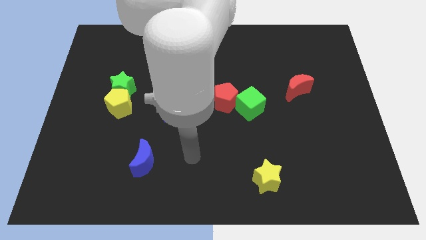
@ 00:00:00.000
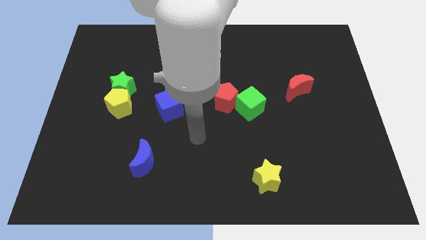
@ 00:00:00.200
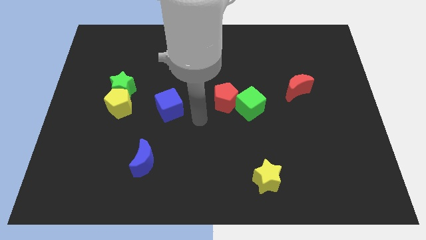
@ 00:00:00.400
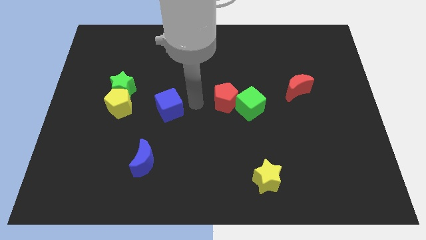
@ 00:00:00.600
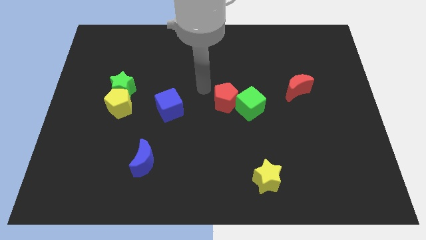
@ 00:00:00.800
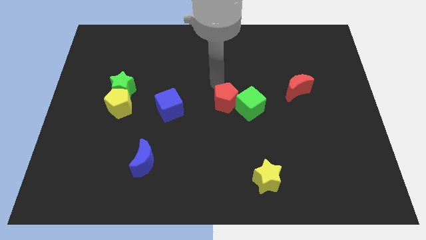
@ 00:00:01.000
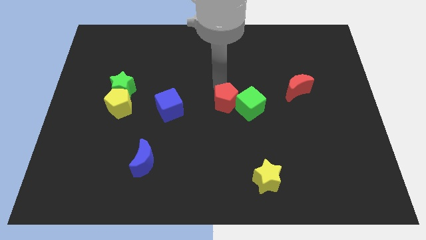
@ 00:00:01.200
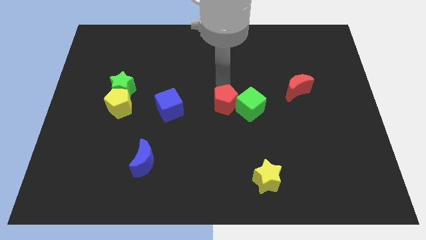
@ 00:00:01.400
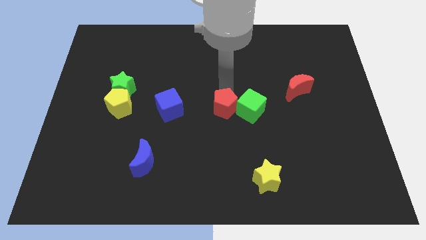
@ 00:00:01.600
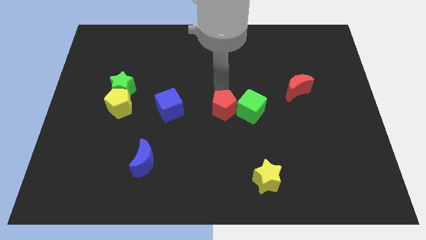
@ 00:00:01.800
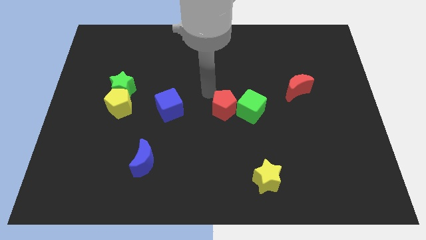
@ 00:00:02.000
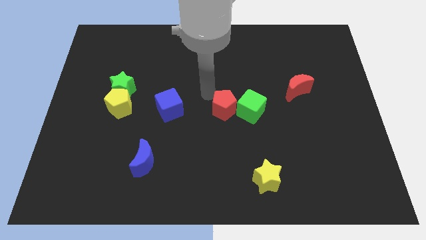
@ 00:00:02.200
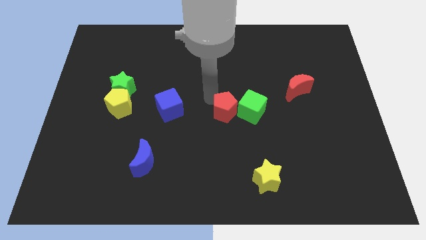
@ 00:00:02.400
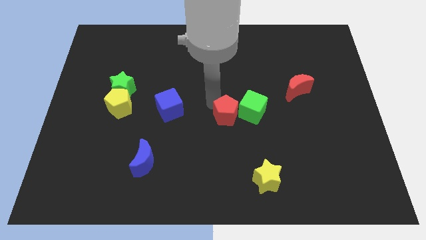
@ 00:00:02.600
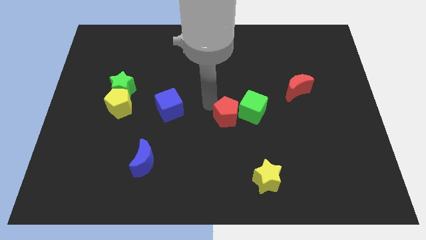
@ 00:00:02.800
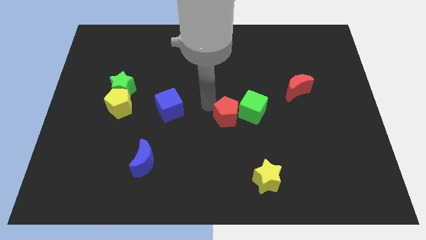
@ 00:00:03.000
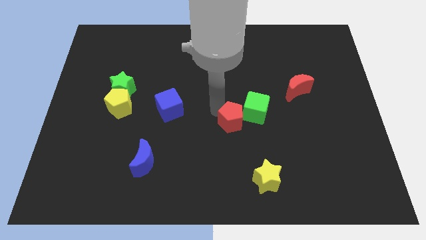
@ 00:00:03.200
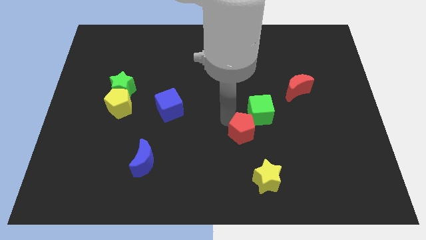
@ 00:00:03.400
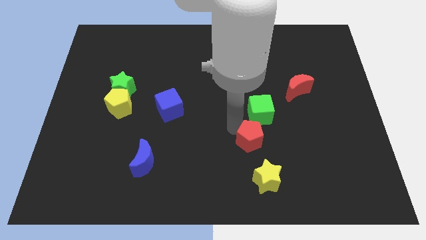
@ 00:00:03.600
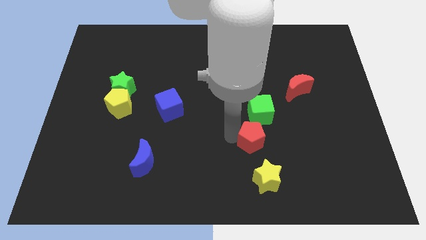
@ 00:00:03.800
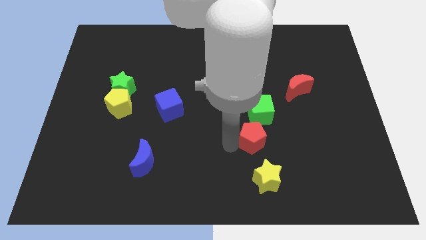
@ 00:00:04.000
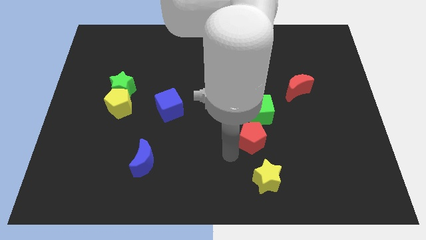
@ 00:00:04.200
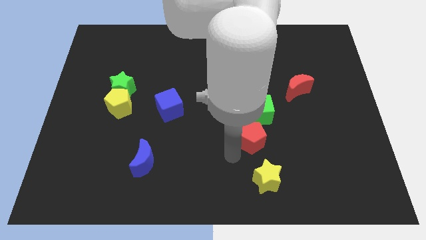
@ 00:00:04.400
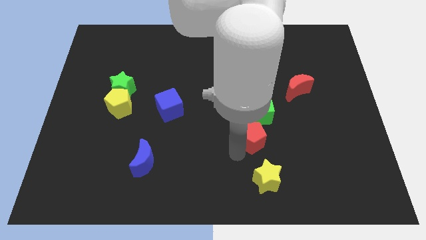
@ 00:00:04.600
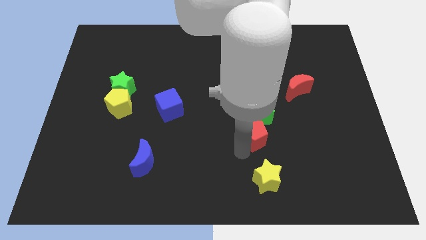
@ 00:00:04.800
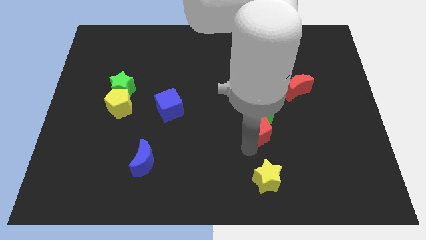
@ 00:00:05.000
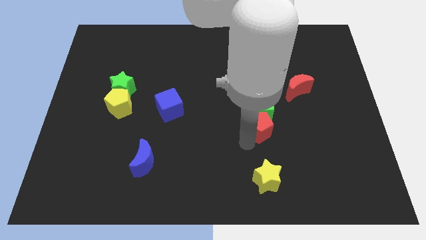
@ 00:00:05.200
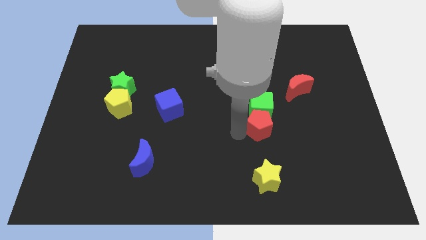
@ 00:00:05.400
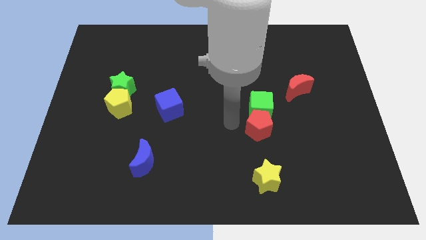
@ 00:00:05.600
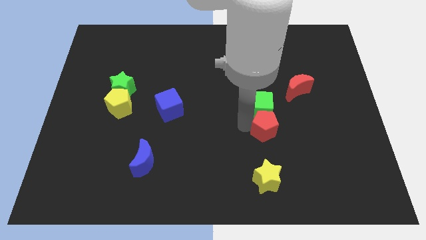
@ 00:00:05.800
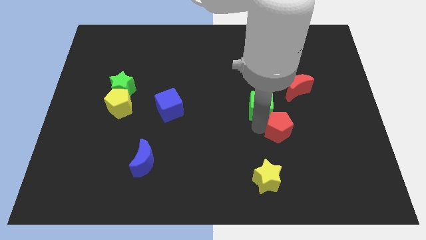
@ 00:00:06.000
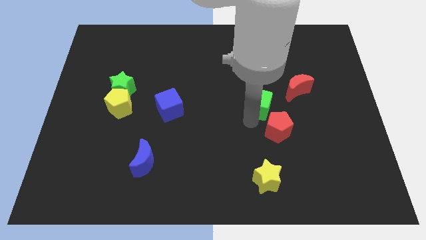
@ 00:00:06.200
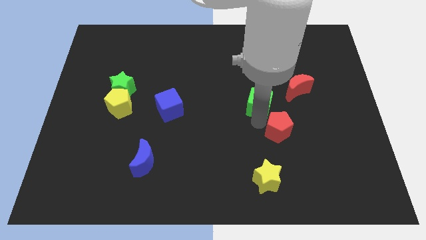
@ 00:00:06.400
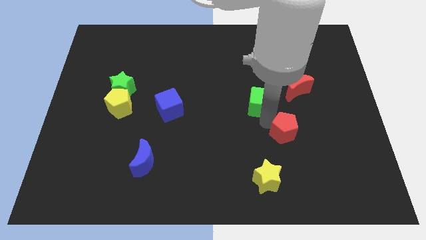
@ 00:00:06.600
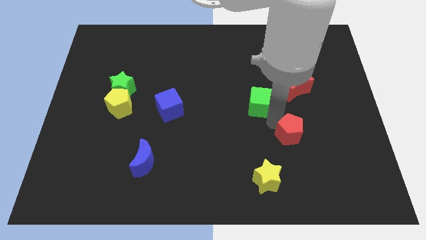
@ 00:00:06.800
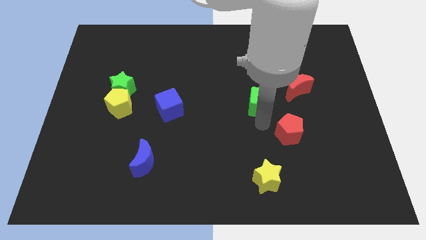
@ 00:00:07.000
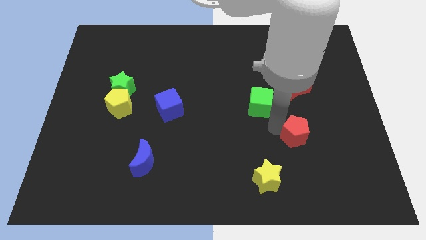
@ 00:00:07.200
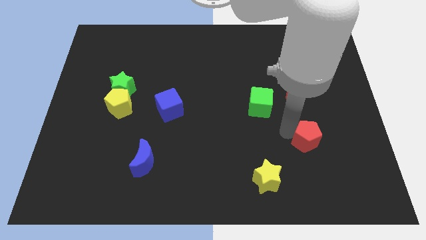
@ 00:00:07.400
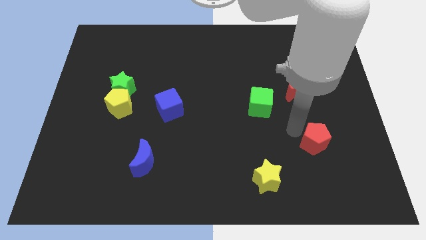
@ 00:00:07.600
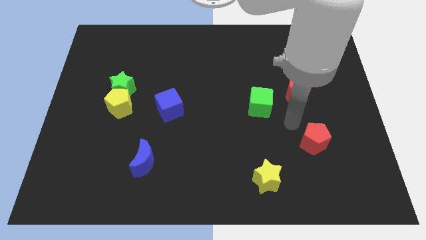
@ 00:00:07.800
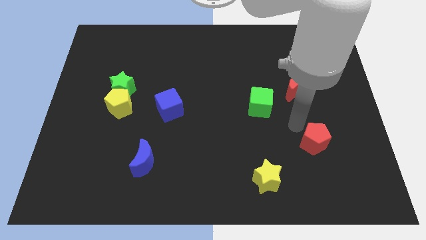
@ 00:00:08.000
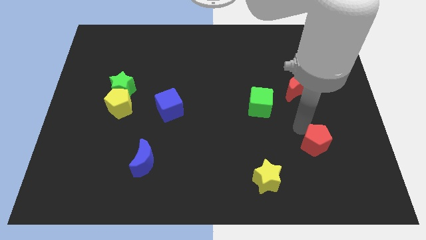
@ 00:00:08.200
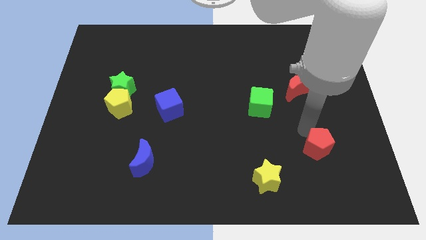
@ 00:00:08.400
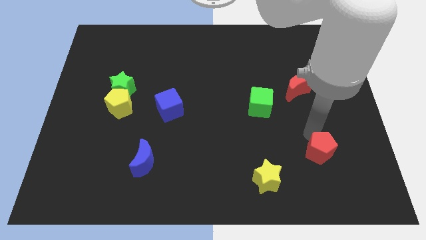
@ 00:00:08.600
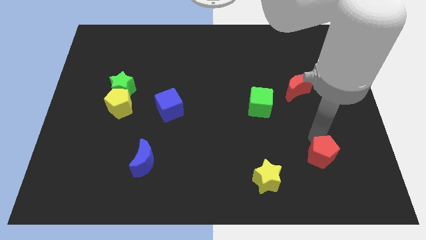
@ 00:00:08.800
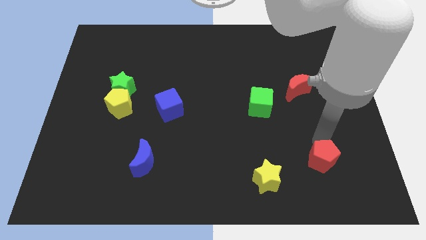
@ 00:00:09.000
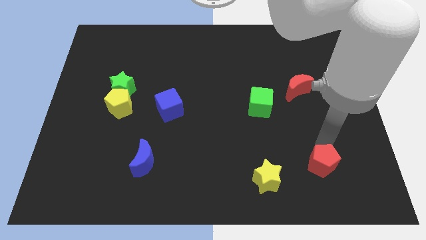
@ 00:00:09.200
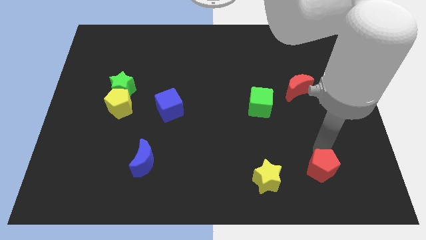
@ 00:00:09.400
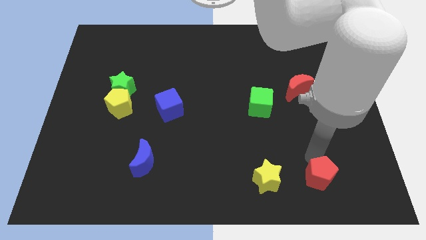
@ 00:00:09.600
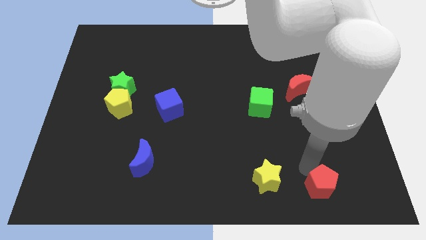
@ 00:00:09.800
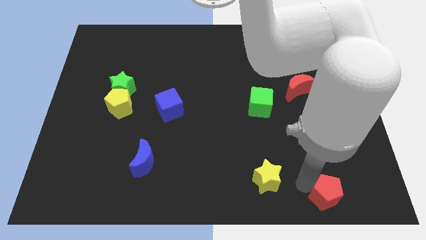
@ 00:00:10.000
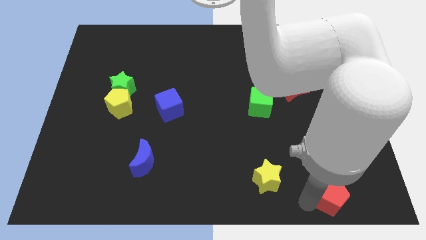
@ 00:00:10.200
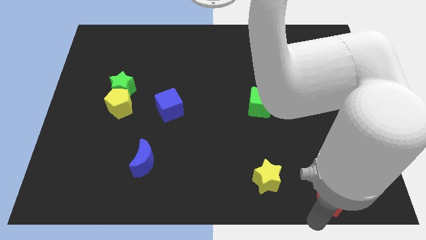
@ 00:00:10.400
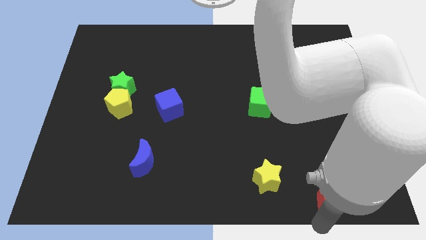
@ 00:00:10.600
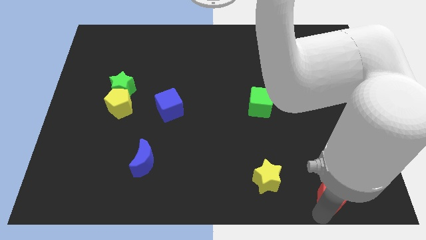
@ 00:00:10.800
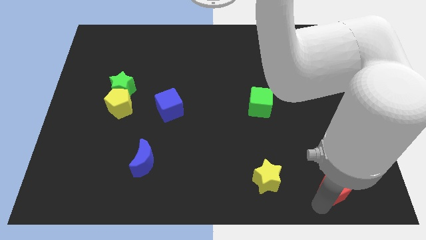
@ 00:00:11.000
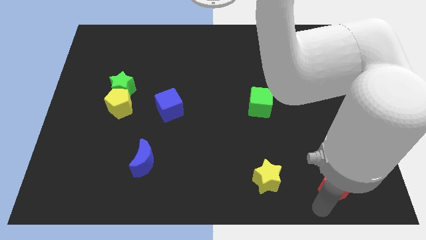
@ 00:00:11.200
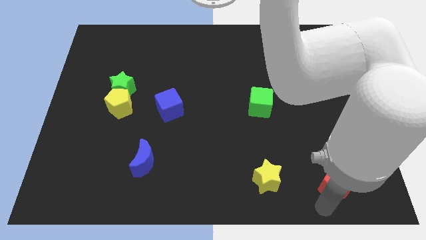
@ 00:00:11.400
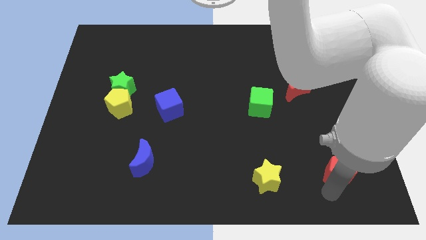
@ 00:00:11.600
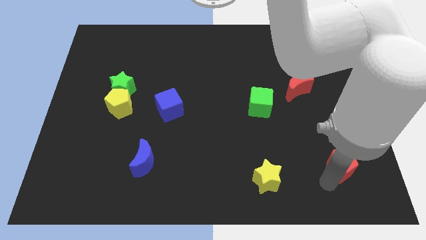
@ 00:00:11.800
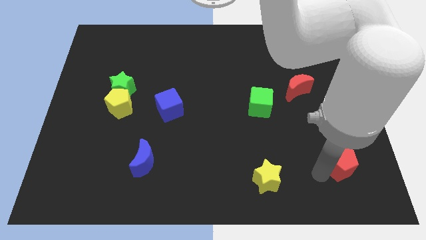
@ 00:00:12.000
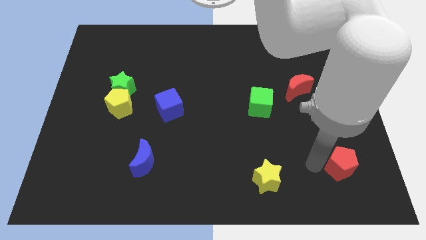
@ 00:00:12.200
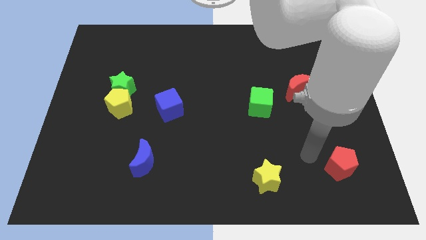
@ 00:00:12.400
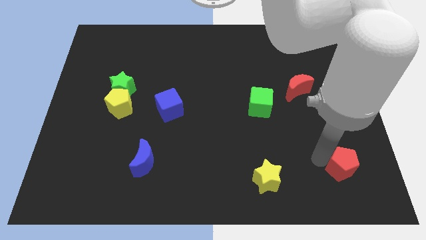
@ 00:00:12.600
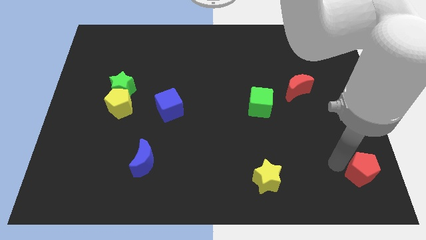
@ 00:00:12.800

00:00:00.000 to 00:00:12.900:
push the red pentagon to the bottom right
